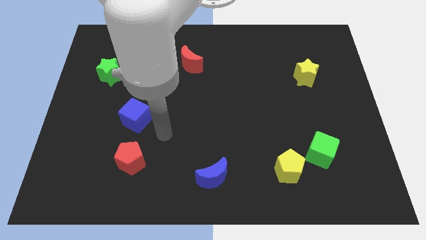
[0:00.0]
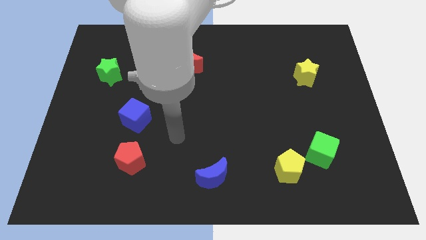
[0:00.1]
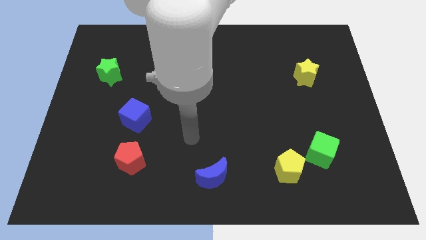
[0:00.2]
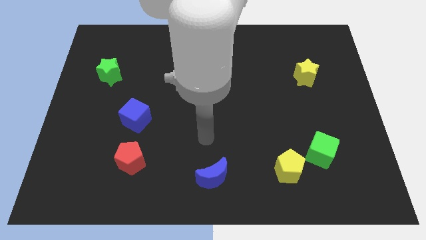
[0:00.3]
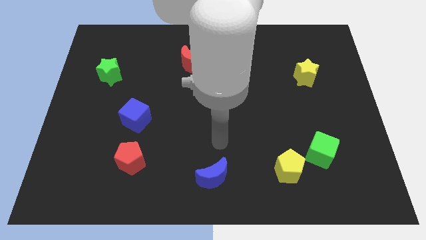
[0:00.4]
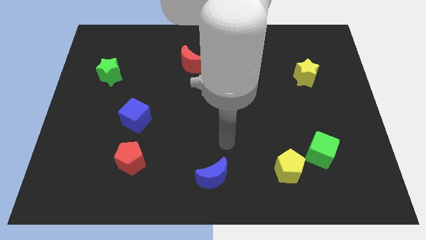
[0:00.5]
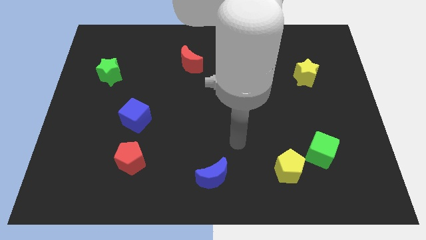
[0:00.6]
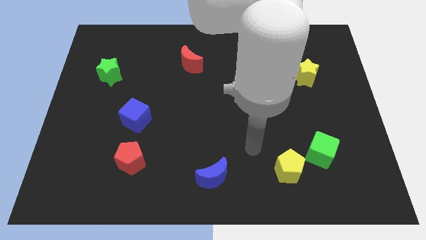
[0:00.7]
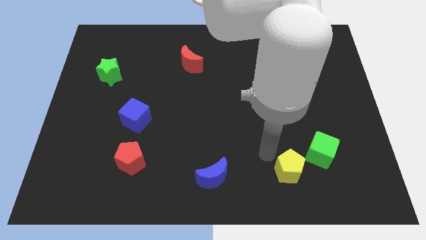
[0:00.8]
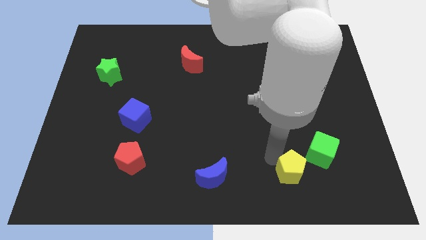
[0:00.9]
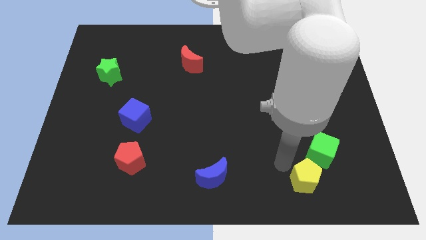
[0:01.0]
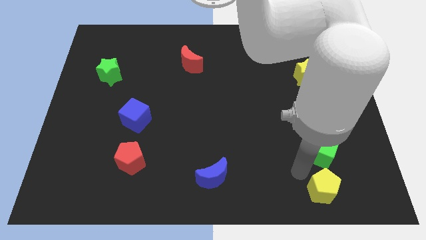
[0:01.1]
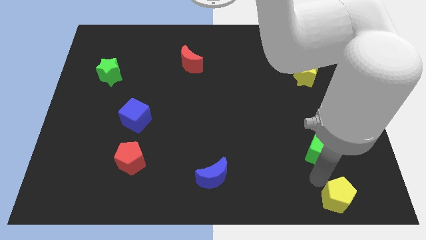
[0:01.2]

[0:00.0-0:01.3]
move the green cube away from the yellow pentagon

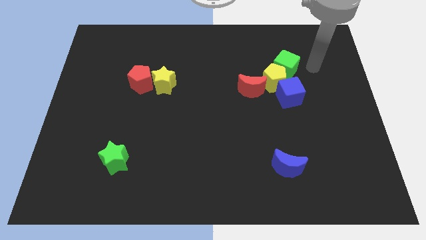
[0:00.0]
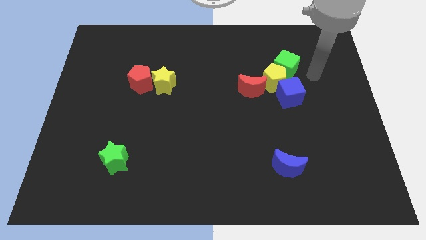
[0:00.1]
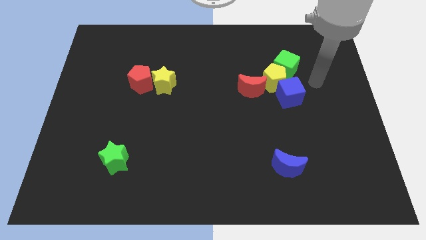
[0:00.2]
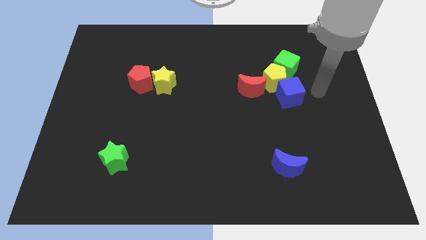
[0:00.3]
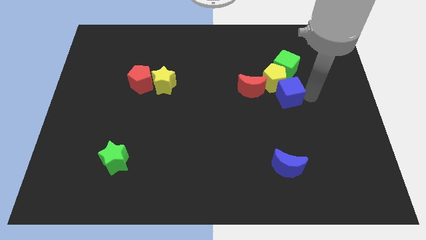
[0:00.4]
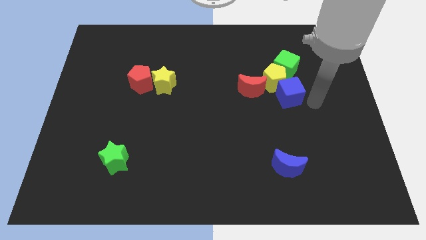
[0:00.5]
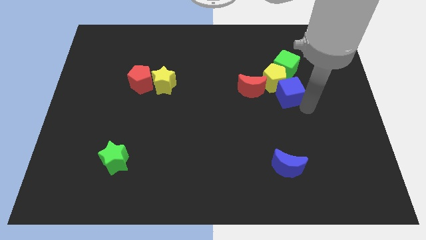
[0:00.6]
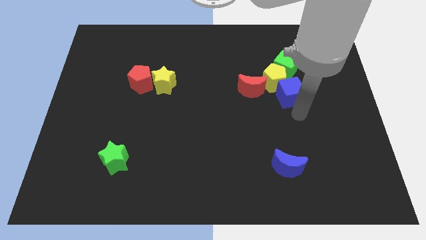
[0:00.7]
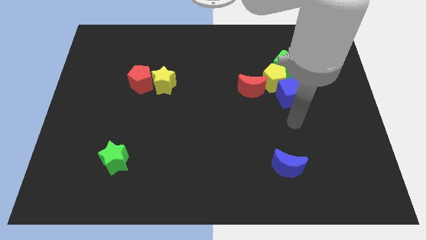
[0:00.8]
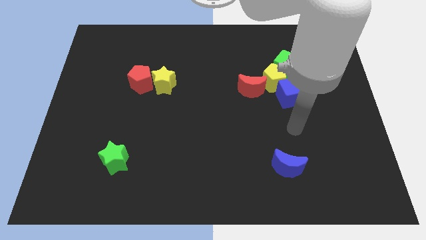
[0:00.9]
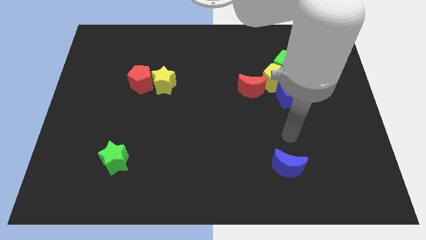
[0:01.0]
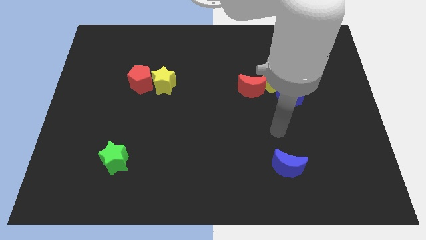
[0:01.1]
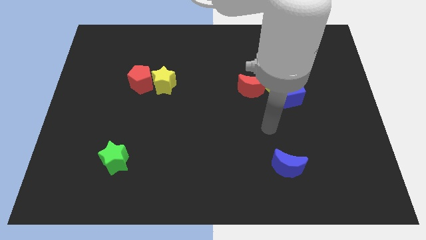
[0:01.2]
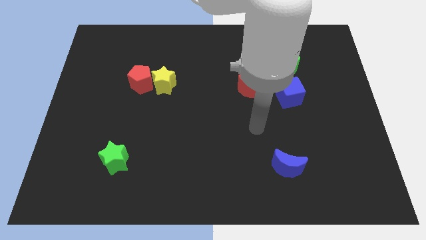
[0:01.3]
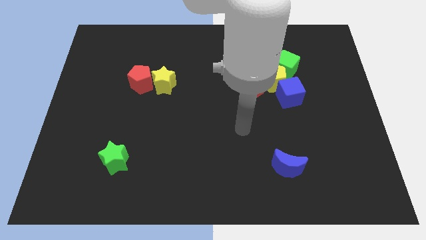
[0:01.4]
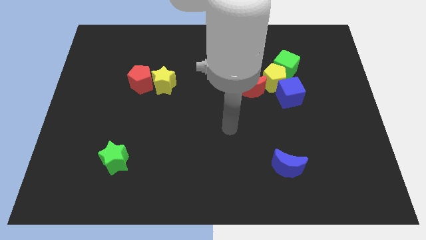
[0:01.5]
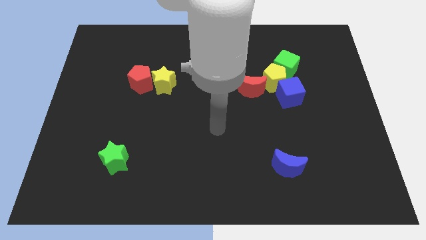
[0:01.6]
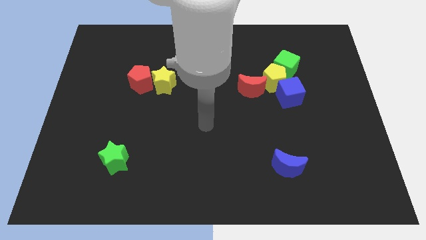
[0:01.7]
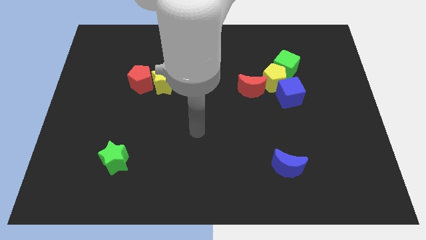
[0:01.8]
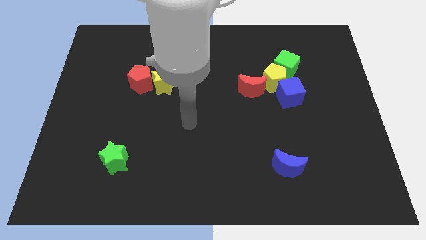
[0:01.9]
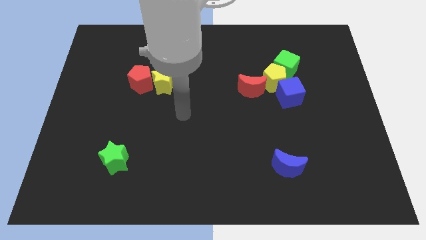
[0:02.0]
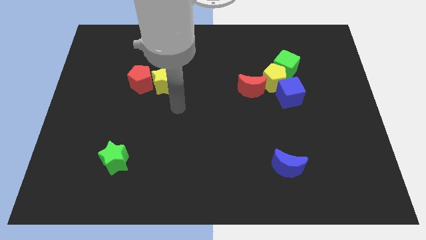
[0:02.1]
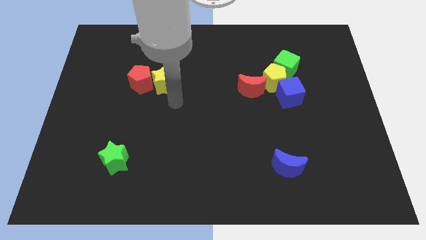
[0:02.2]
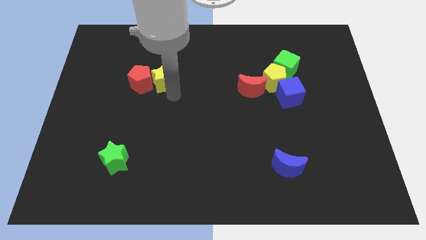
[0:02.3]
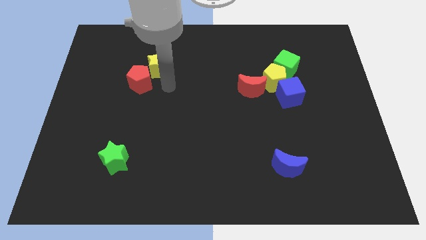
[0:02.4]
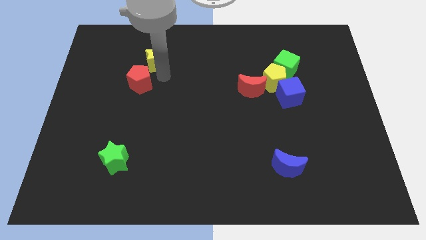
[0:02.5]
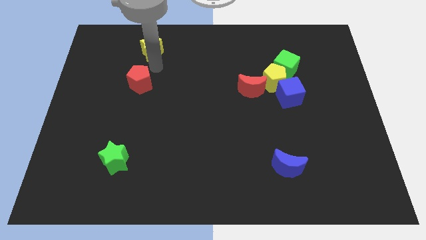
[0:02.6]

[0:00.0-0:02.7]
move the red pentagon away from the yellow star

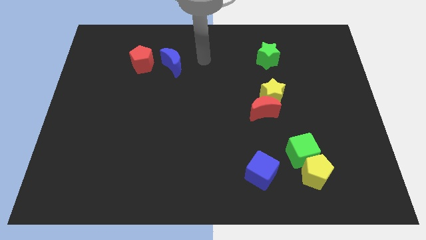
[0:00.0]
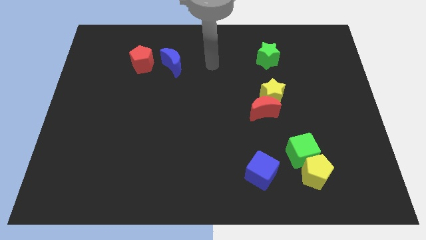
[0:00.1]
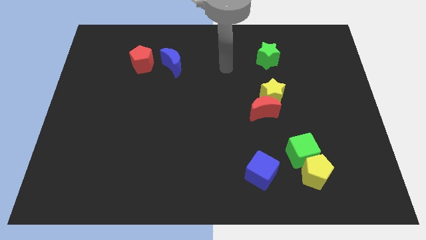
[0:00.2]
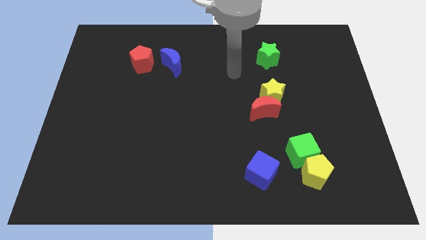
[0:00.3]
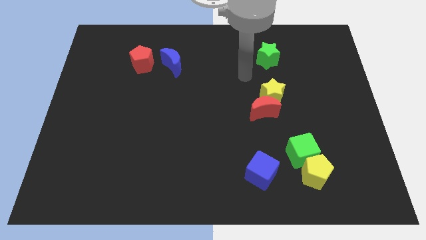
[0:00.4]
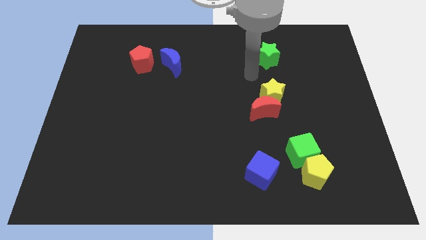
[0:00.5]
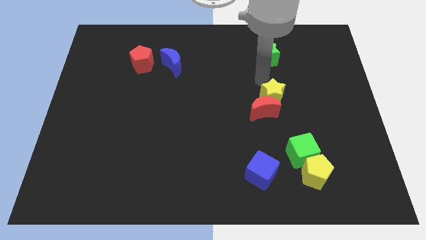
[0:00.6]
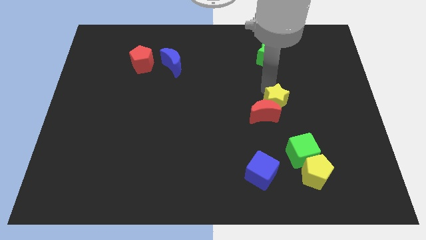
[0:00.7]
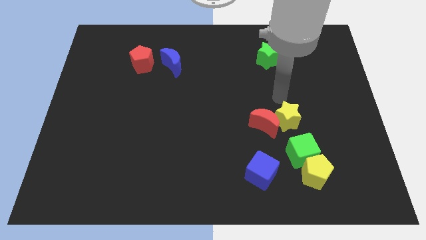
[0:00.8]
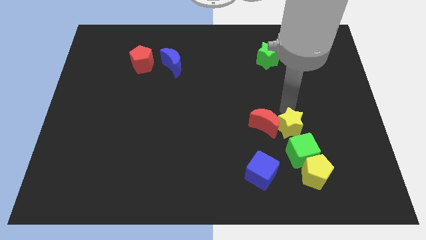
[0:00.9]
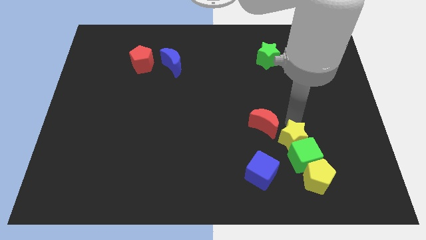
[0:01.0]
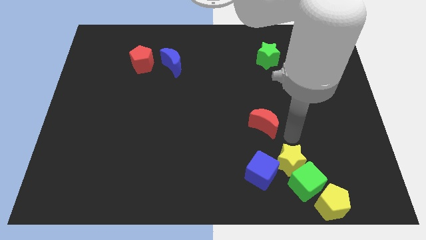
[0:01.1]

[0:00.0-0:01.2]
separate the red moon from the yellow star

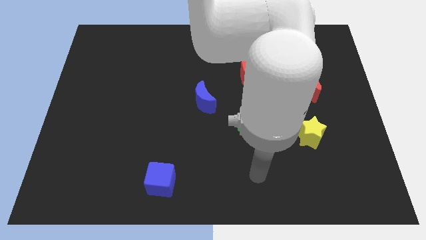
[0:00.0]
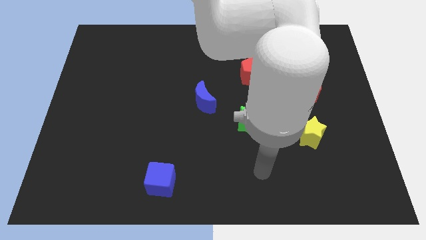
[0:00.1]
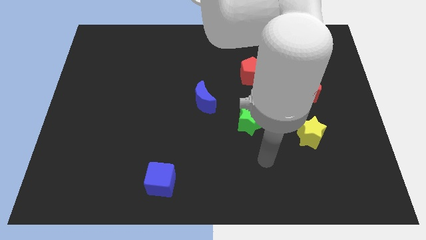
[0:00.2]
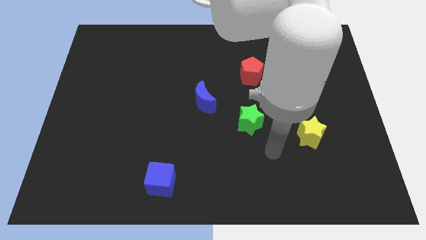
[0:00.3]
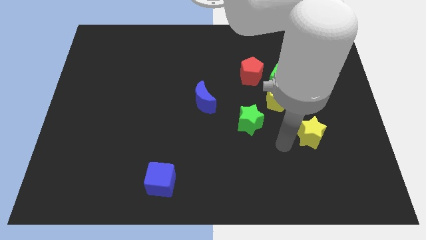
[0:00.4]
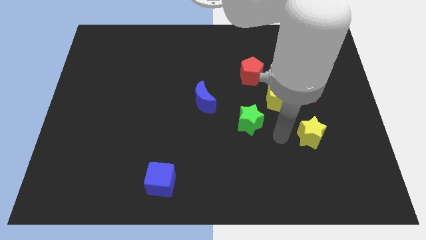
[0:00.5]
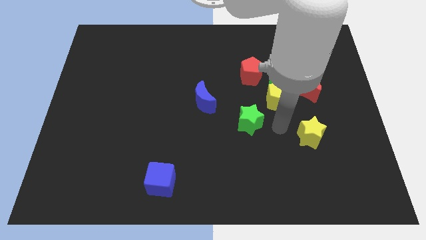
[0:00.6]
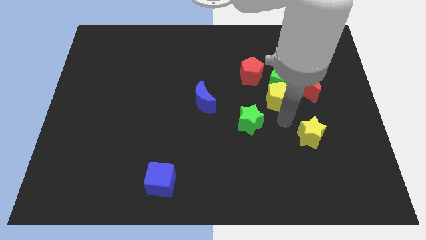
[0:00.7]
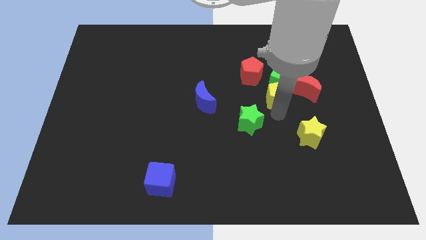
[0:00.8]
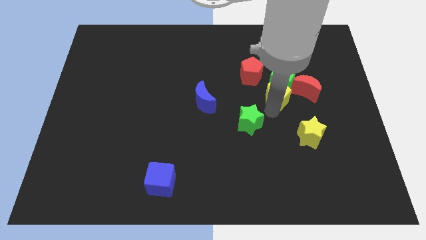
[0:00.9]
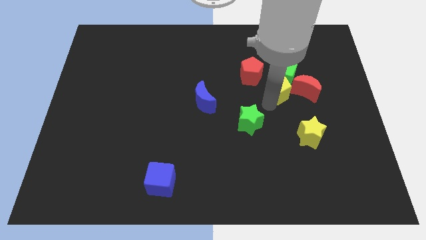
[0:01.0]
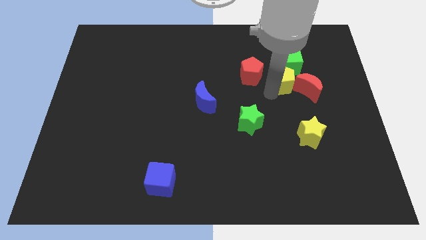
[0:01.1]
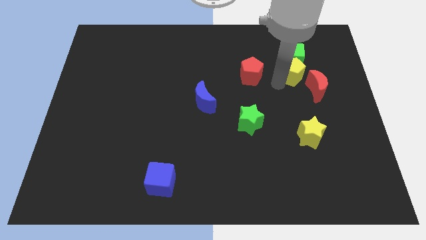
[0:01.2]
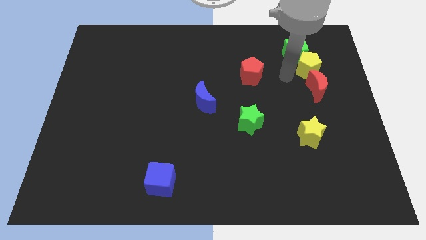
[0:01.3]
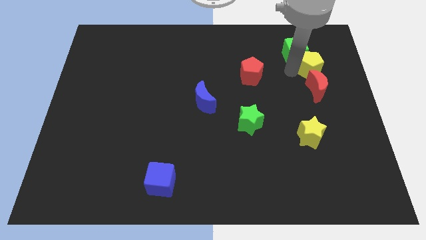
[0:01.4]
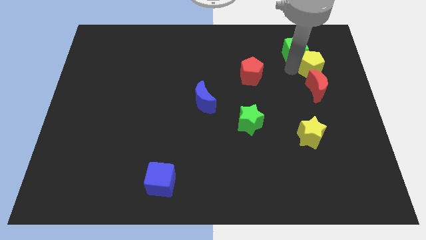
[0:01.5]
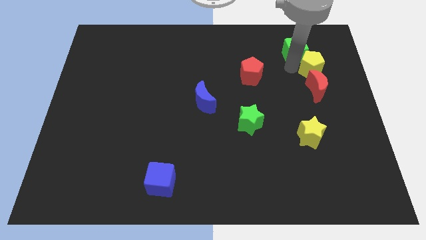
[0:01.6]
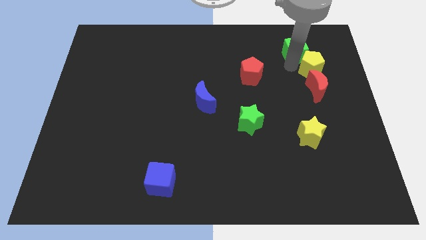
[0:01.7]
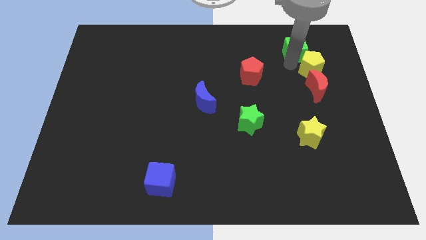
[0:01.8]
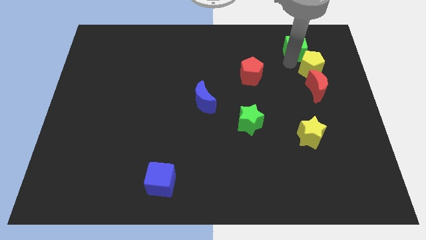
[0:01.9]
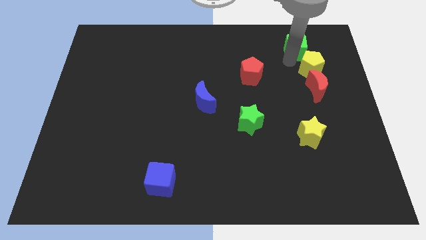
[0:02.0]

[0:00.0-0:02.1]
move the green cube away from the group

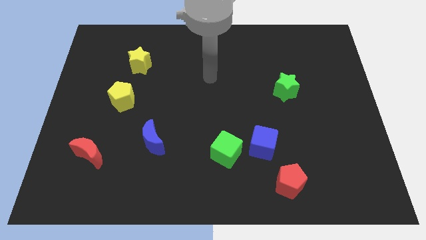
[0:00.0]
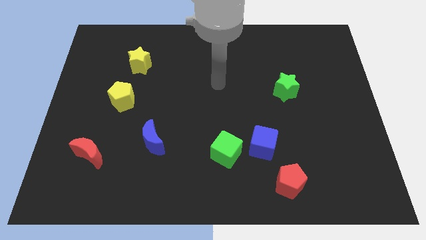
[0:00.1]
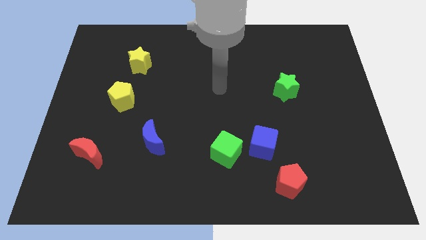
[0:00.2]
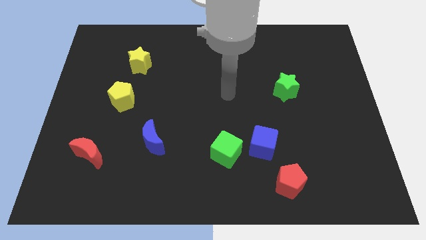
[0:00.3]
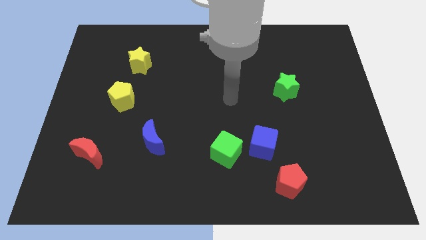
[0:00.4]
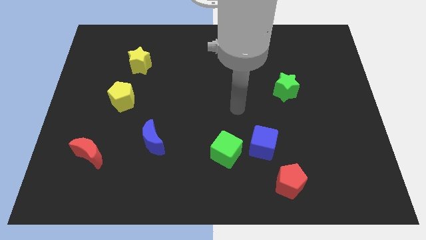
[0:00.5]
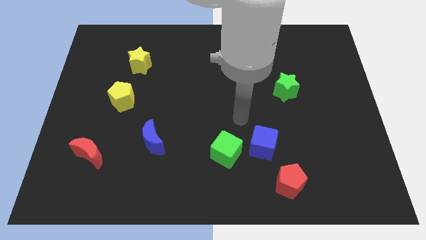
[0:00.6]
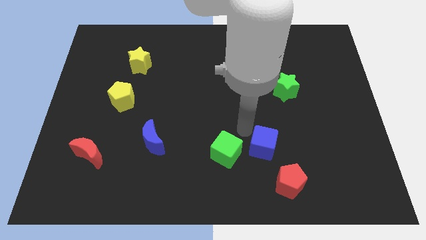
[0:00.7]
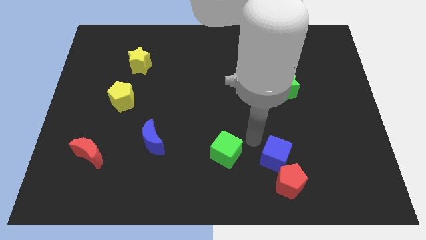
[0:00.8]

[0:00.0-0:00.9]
pull the green cube apart from the blue cube

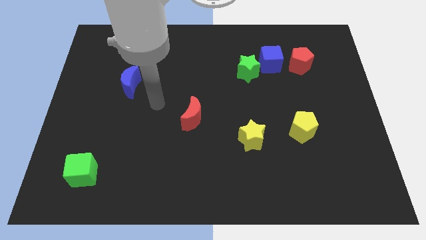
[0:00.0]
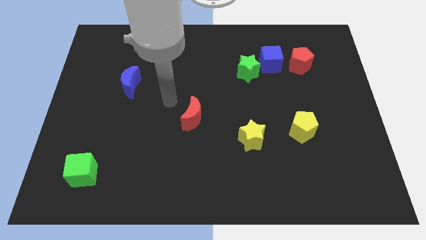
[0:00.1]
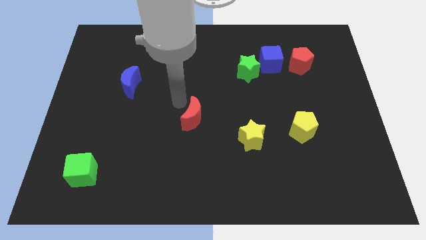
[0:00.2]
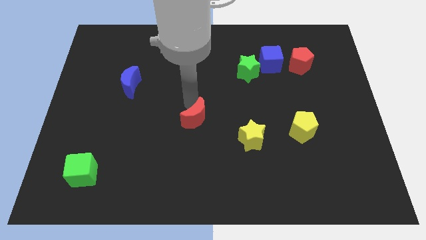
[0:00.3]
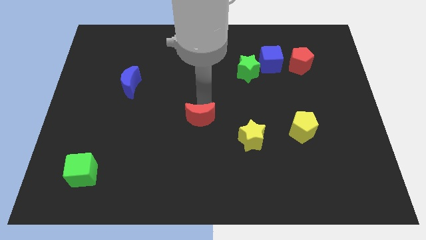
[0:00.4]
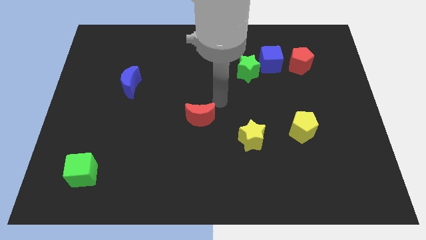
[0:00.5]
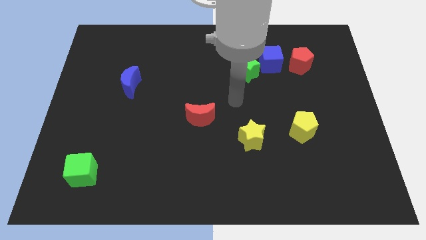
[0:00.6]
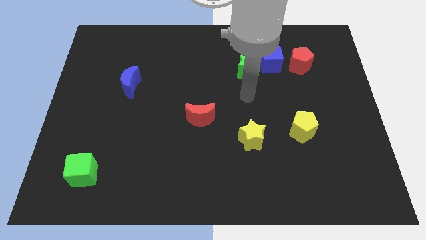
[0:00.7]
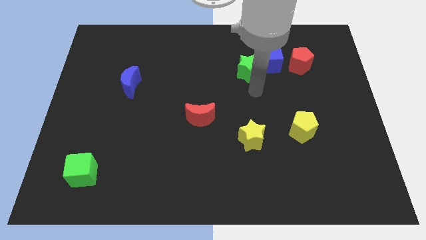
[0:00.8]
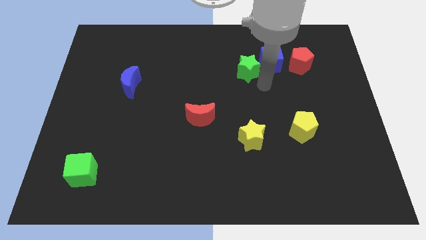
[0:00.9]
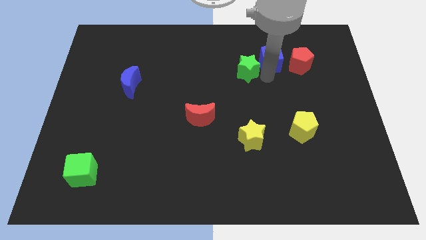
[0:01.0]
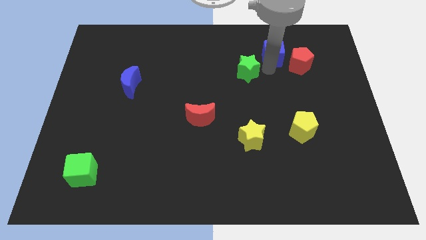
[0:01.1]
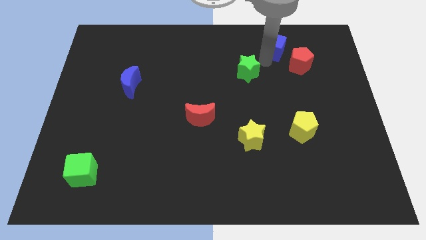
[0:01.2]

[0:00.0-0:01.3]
move the green star away from the blue cube
